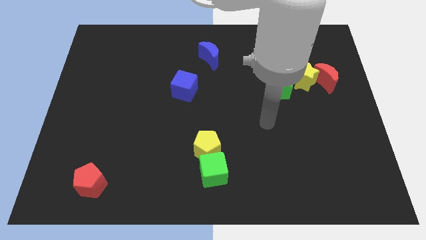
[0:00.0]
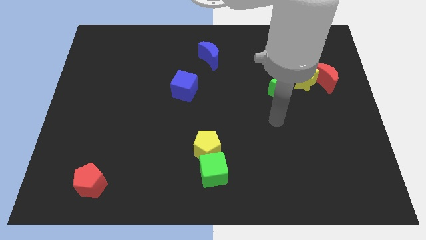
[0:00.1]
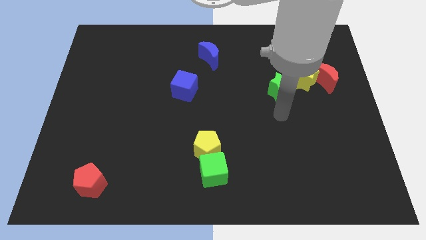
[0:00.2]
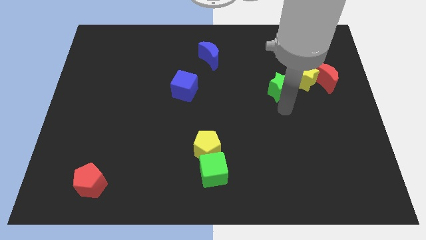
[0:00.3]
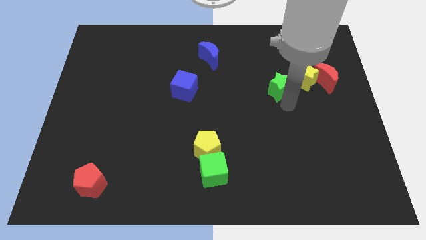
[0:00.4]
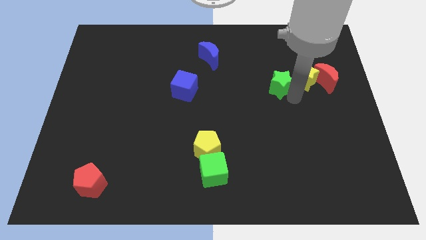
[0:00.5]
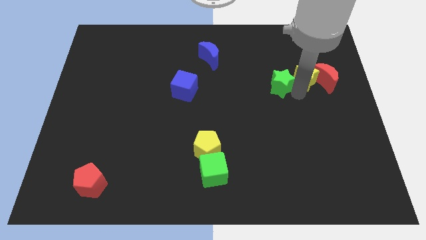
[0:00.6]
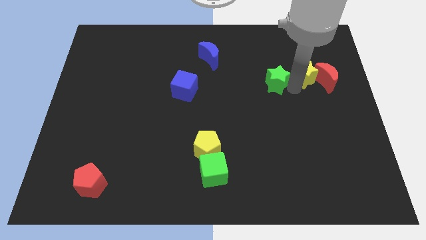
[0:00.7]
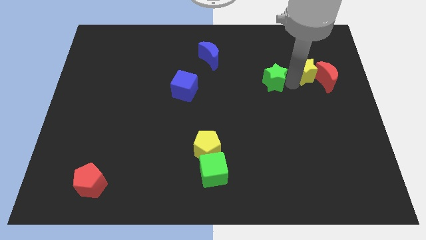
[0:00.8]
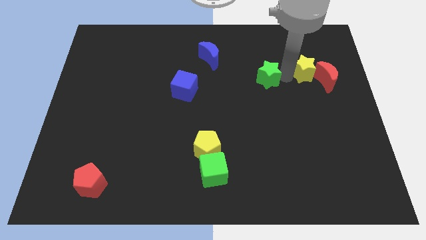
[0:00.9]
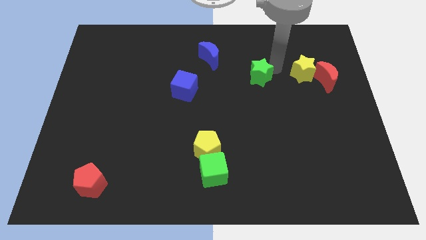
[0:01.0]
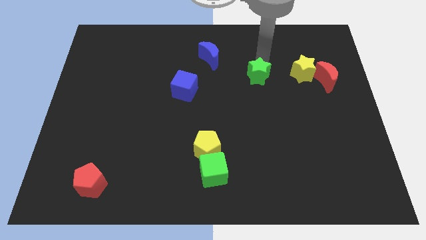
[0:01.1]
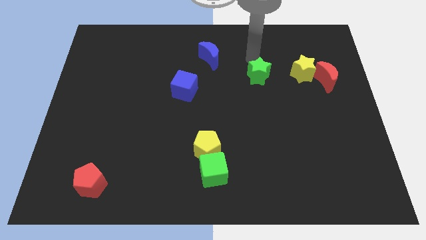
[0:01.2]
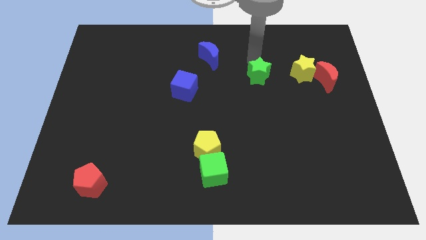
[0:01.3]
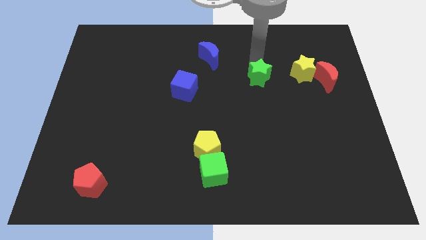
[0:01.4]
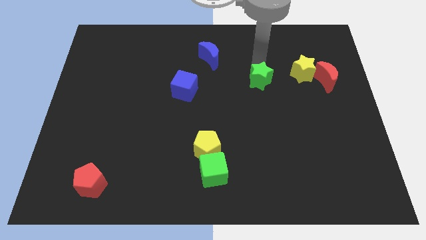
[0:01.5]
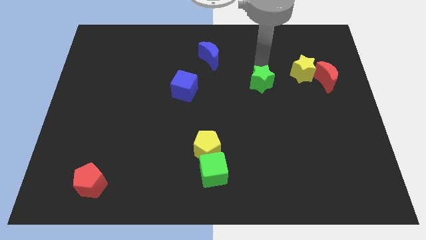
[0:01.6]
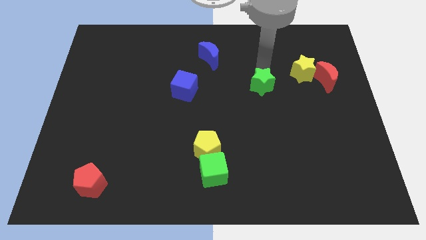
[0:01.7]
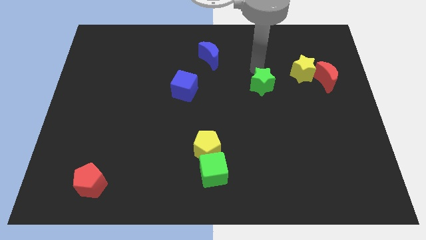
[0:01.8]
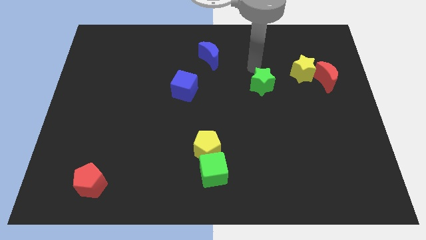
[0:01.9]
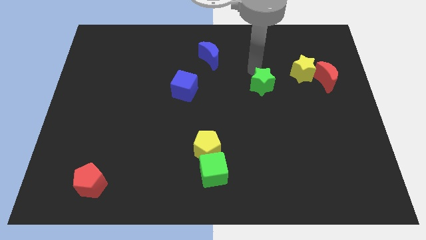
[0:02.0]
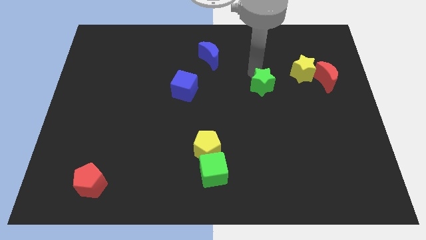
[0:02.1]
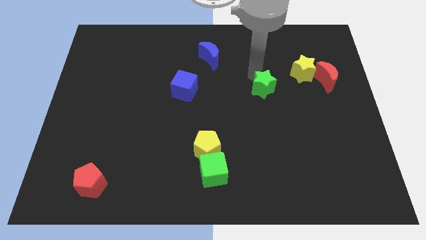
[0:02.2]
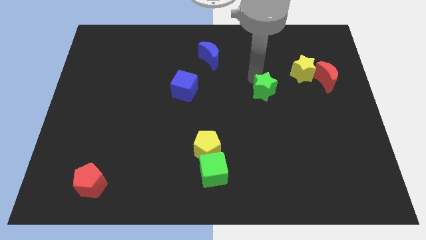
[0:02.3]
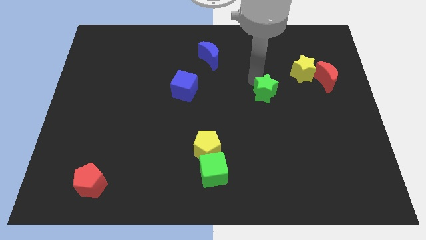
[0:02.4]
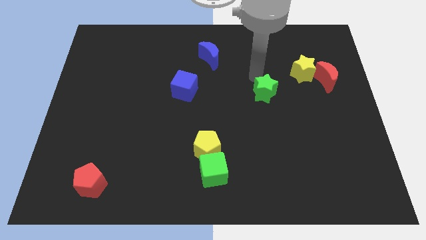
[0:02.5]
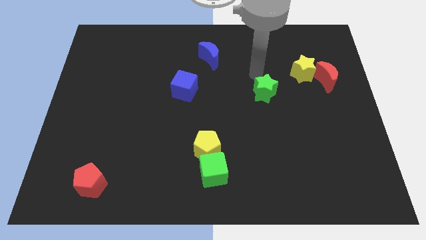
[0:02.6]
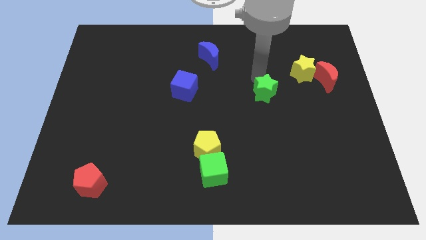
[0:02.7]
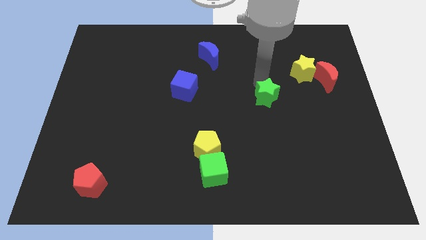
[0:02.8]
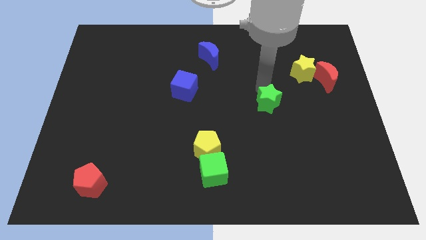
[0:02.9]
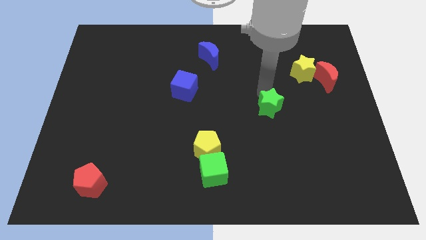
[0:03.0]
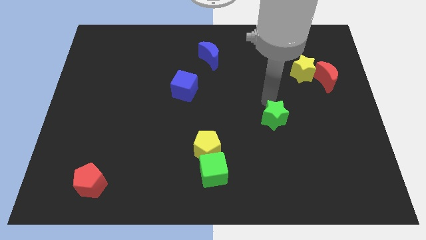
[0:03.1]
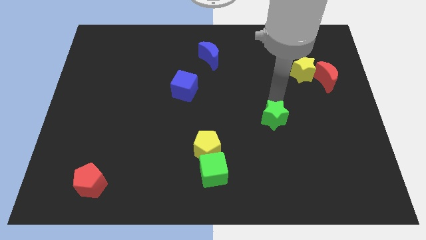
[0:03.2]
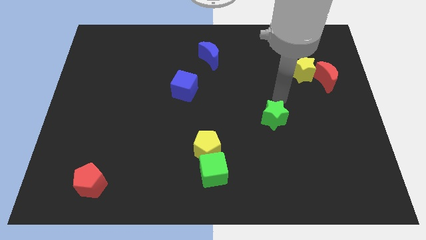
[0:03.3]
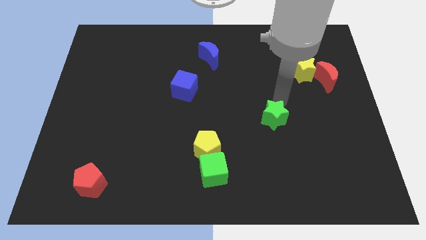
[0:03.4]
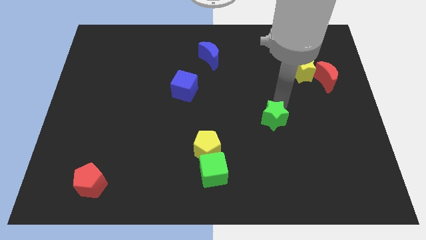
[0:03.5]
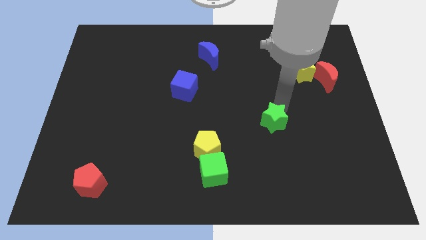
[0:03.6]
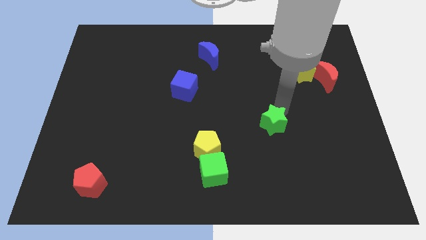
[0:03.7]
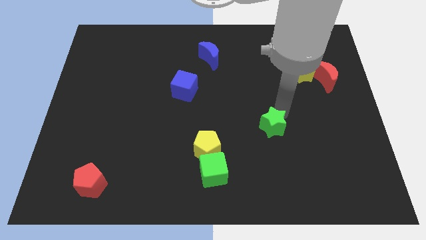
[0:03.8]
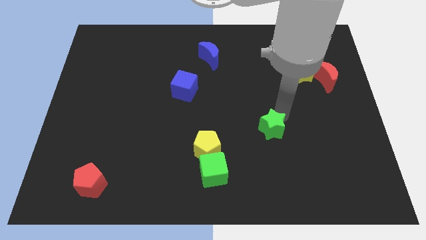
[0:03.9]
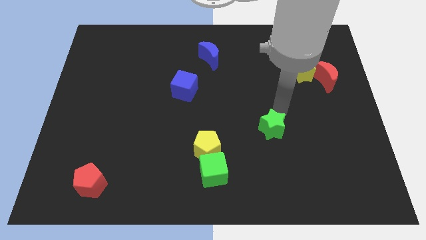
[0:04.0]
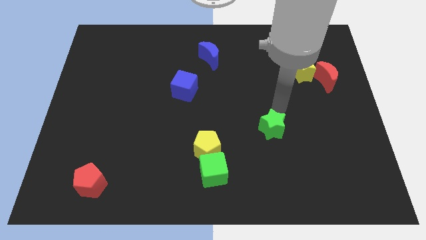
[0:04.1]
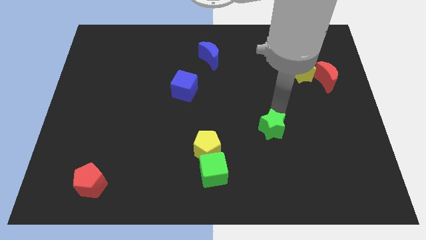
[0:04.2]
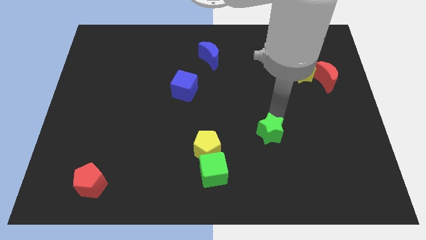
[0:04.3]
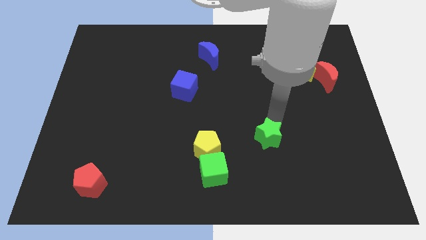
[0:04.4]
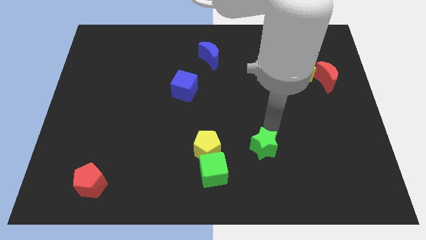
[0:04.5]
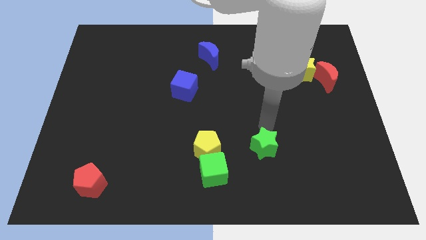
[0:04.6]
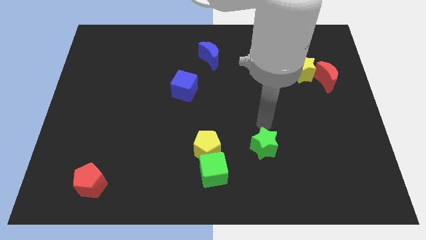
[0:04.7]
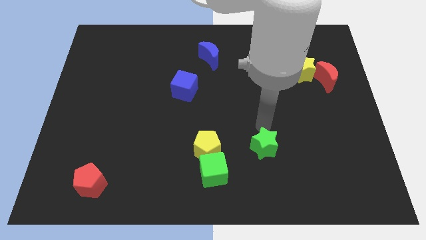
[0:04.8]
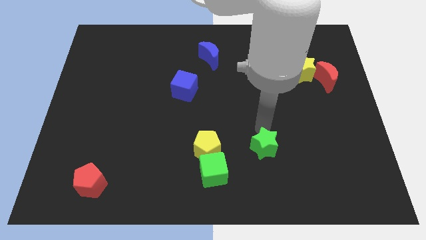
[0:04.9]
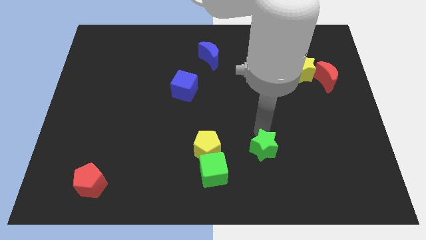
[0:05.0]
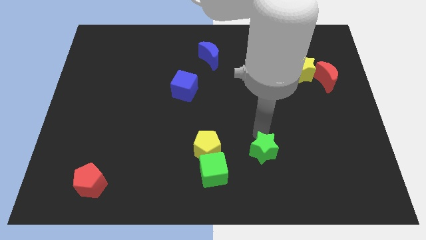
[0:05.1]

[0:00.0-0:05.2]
move the green star to the right of the green cube

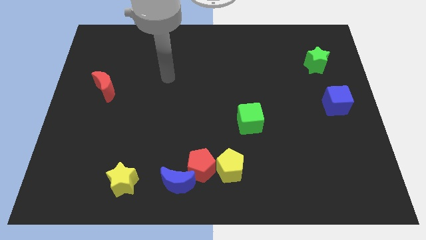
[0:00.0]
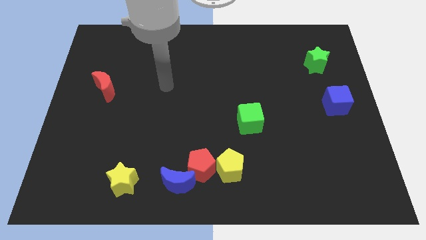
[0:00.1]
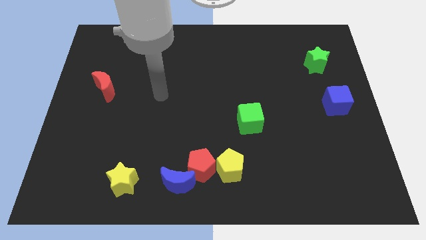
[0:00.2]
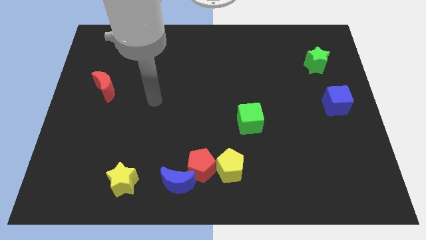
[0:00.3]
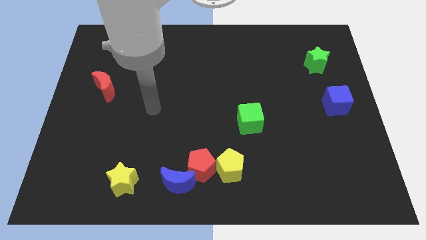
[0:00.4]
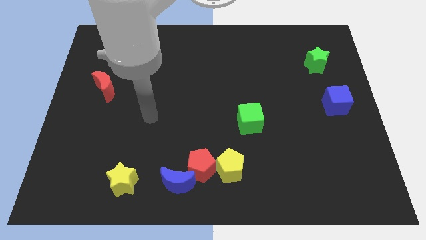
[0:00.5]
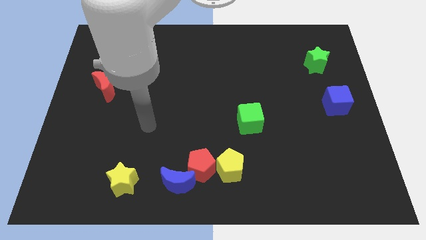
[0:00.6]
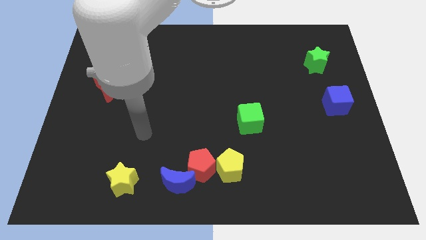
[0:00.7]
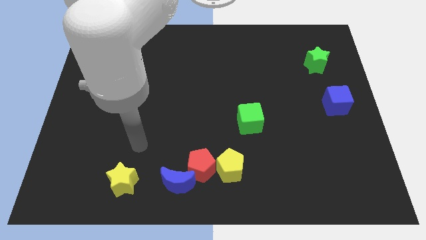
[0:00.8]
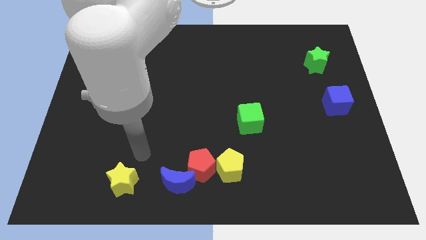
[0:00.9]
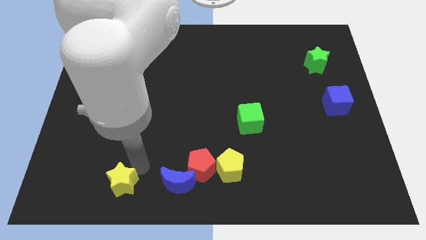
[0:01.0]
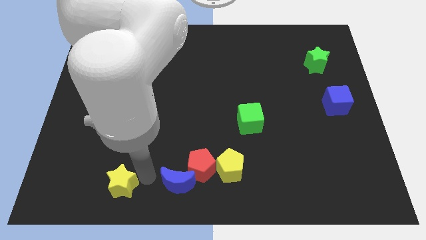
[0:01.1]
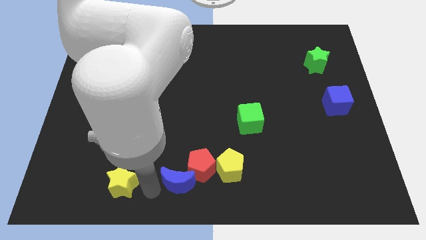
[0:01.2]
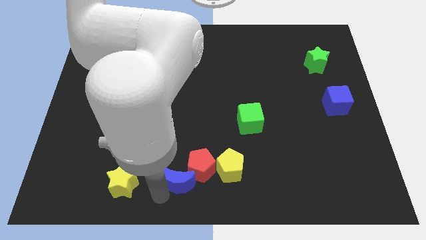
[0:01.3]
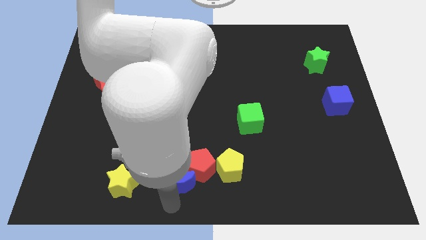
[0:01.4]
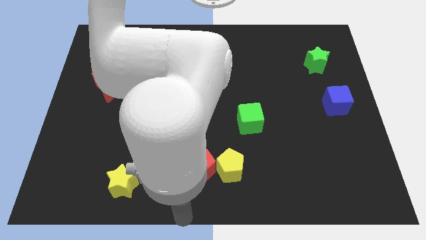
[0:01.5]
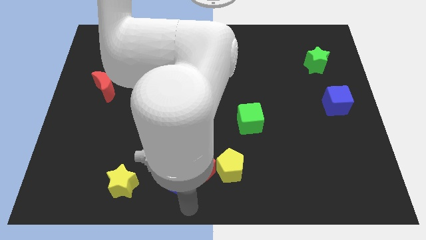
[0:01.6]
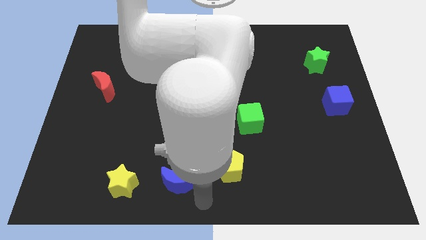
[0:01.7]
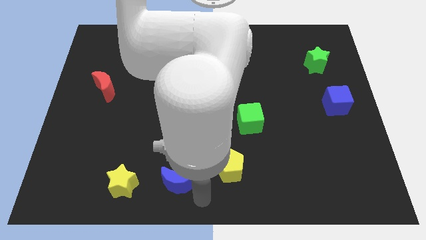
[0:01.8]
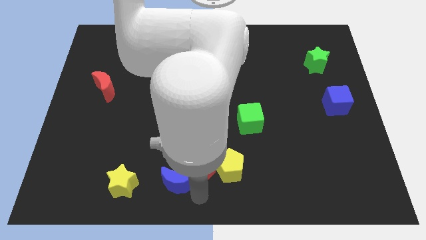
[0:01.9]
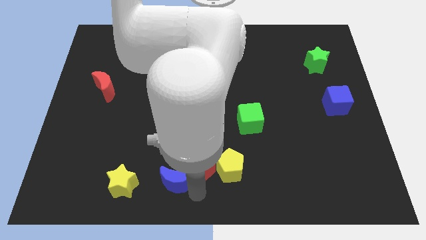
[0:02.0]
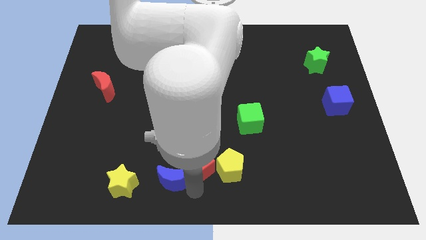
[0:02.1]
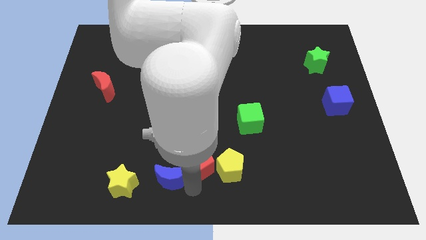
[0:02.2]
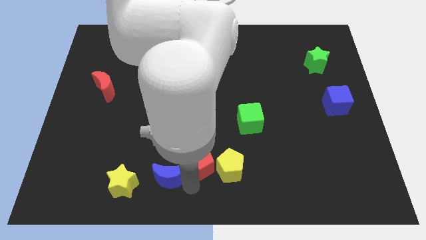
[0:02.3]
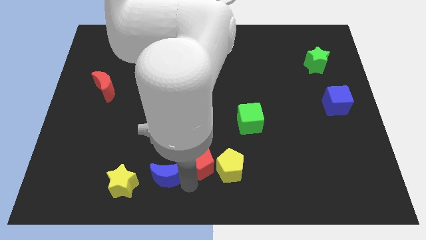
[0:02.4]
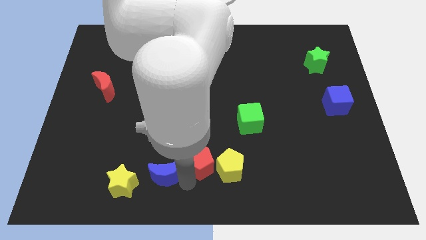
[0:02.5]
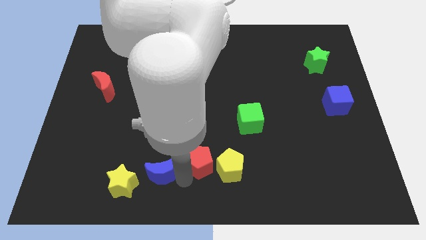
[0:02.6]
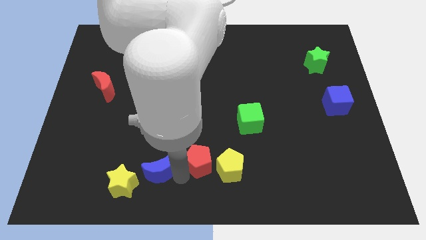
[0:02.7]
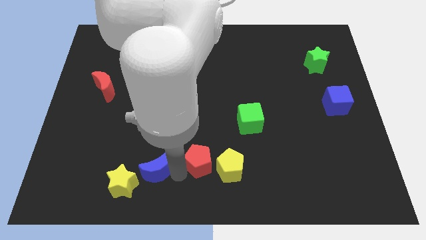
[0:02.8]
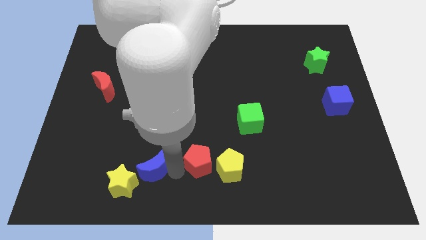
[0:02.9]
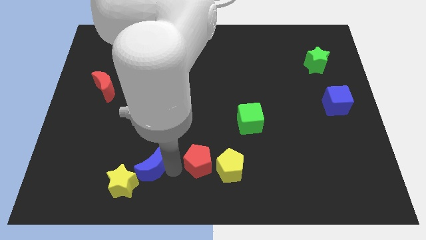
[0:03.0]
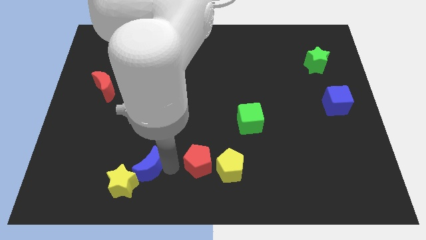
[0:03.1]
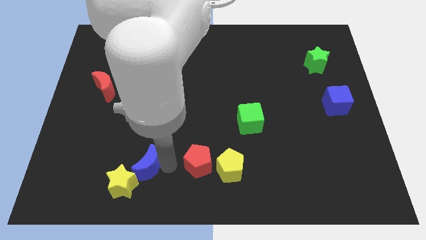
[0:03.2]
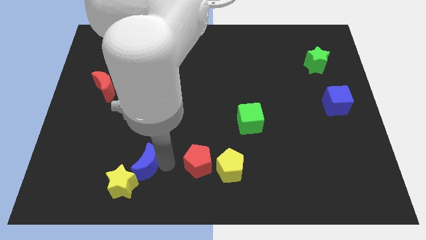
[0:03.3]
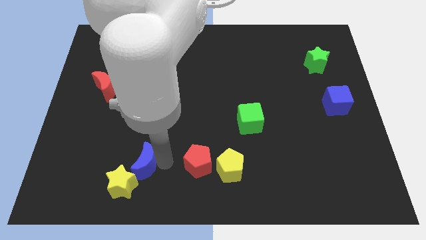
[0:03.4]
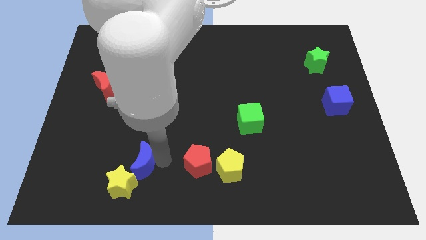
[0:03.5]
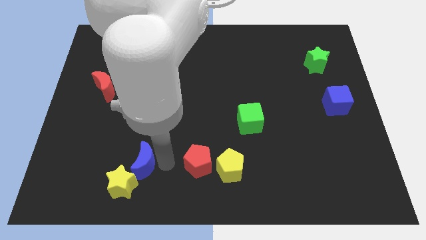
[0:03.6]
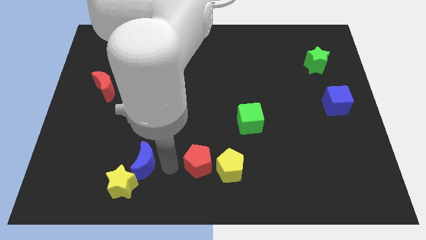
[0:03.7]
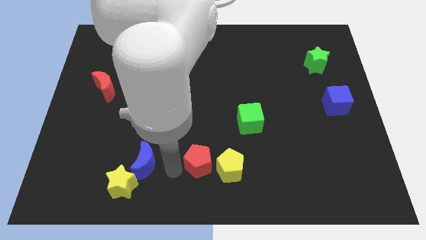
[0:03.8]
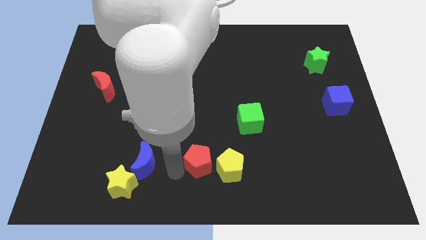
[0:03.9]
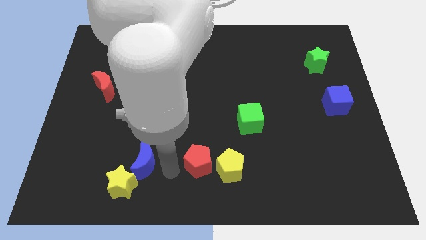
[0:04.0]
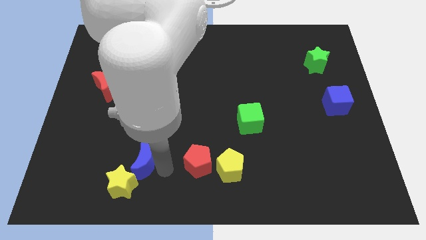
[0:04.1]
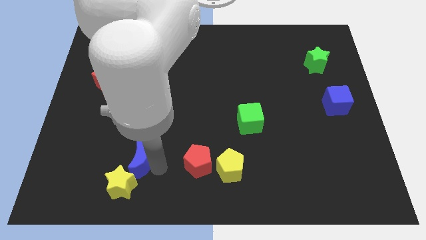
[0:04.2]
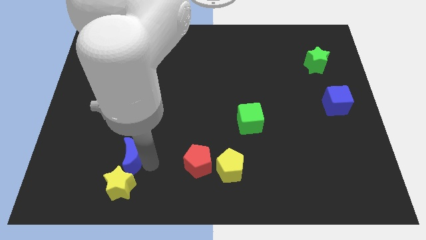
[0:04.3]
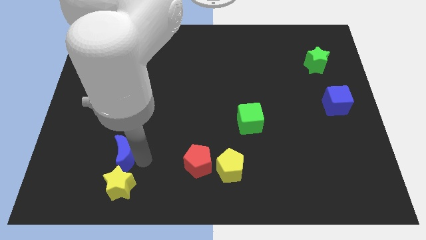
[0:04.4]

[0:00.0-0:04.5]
move the blue moon diagonally up and to the left of the yellow star
